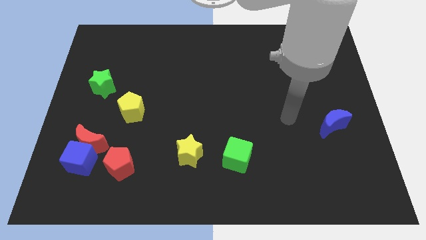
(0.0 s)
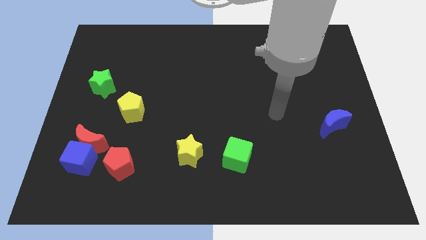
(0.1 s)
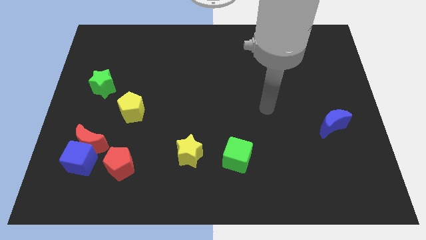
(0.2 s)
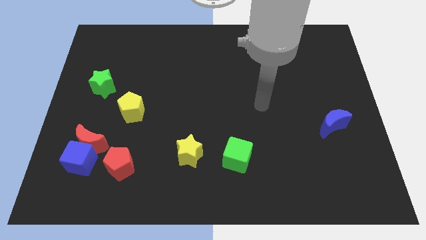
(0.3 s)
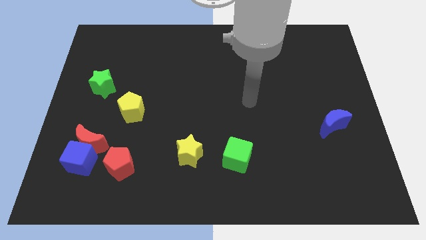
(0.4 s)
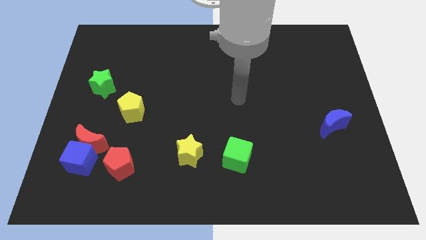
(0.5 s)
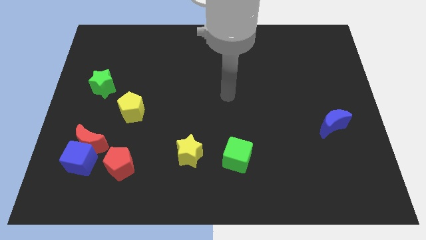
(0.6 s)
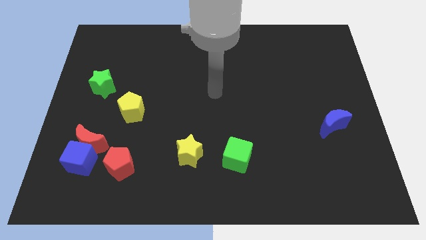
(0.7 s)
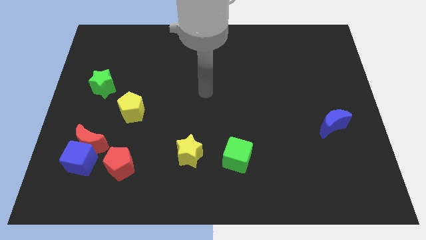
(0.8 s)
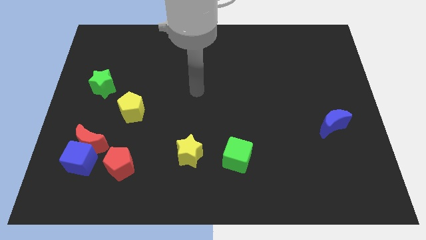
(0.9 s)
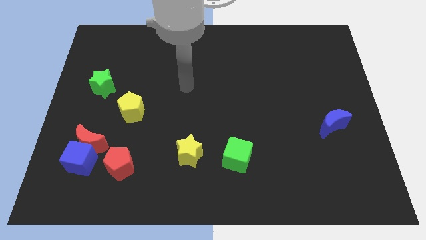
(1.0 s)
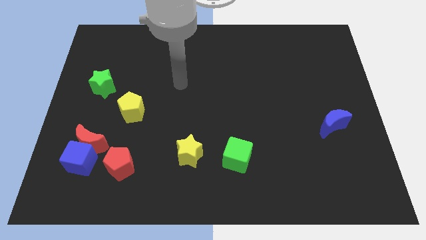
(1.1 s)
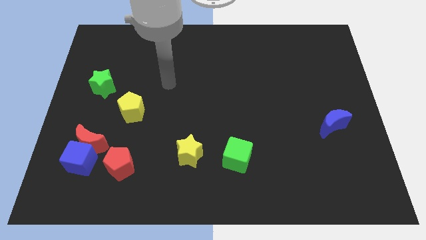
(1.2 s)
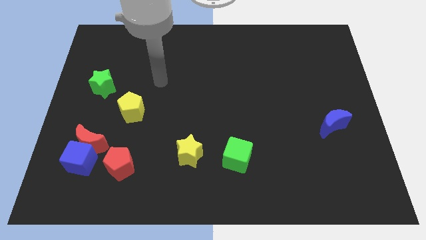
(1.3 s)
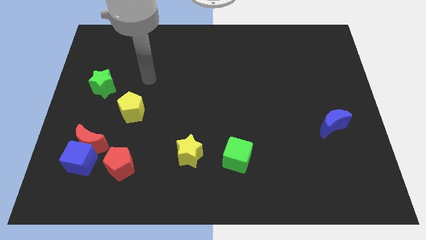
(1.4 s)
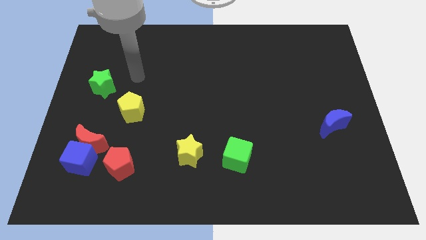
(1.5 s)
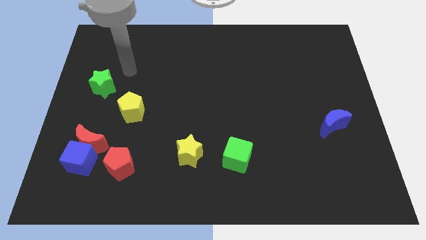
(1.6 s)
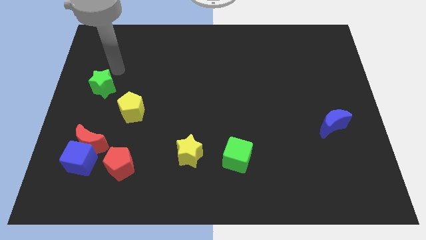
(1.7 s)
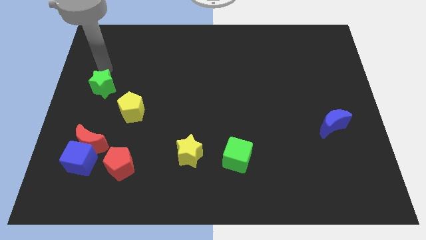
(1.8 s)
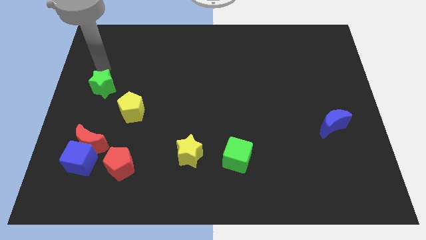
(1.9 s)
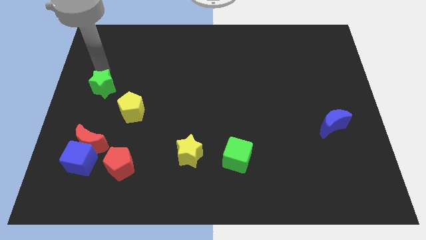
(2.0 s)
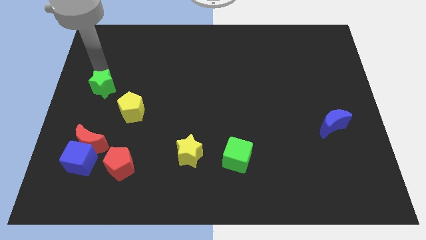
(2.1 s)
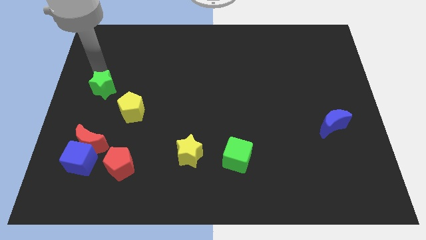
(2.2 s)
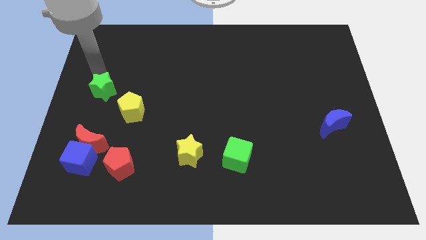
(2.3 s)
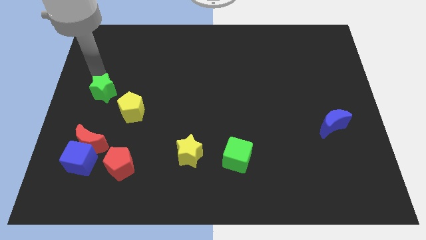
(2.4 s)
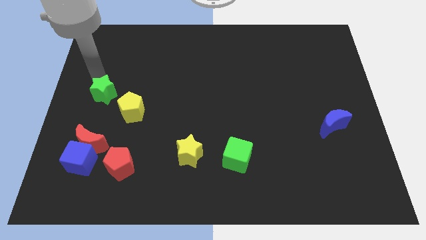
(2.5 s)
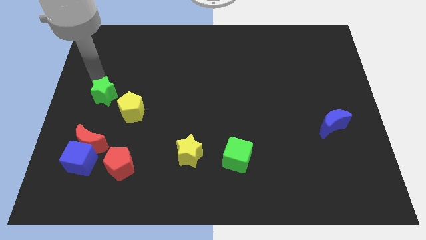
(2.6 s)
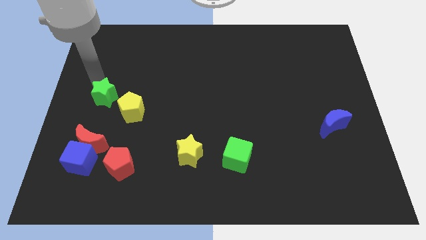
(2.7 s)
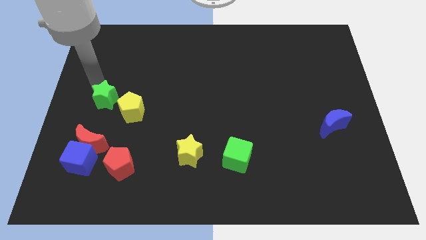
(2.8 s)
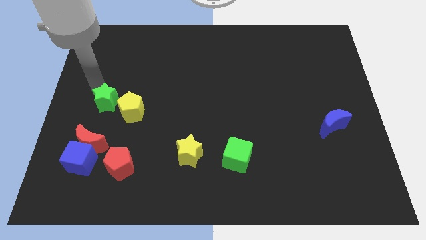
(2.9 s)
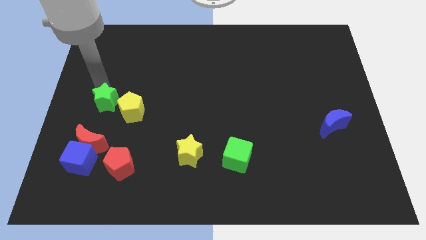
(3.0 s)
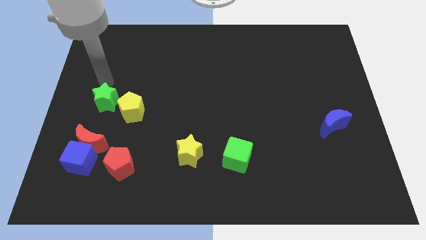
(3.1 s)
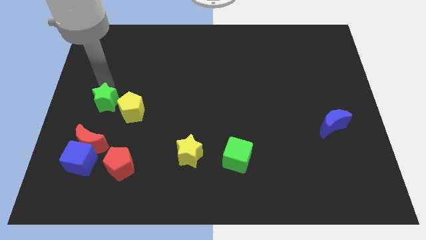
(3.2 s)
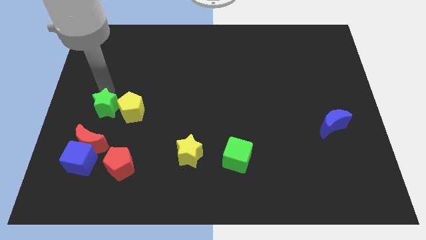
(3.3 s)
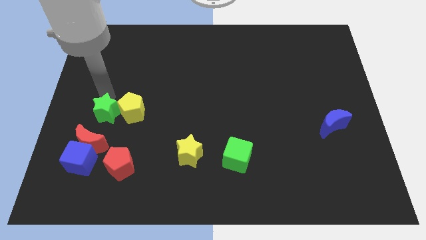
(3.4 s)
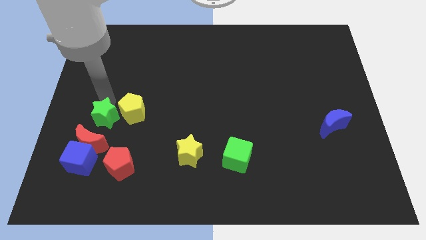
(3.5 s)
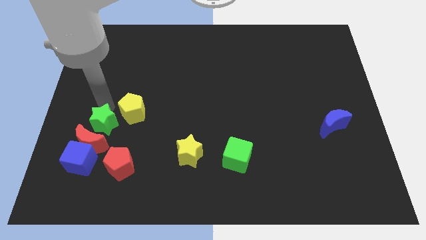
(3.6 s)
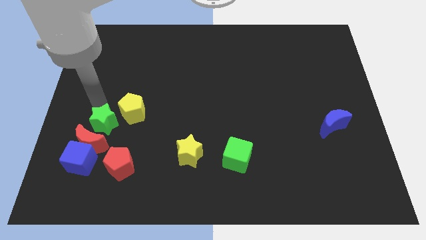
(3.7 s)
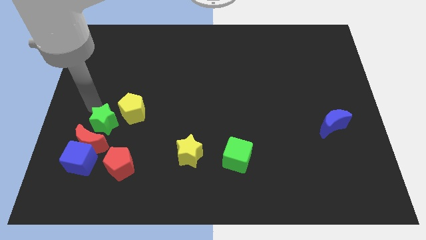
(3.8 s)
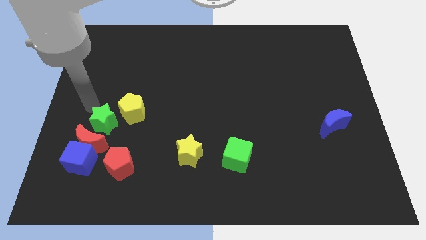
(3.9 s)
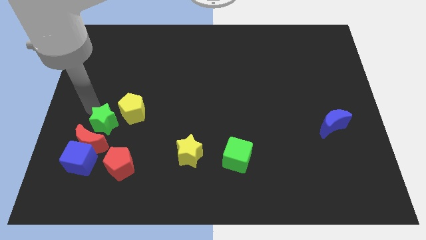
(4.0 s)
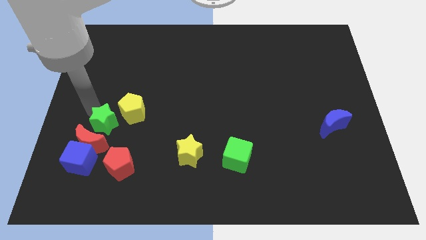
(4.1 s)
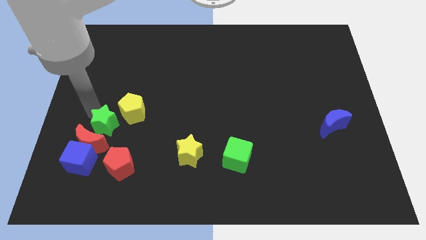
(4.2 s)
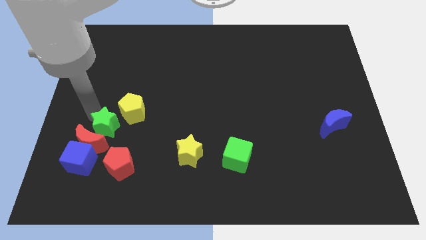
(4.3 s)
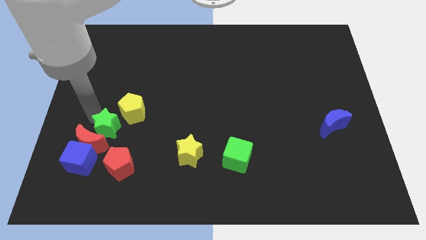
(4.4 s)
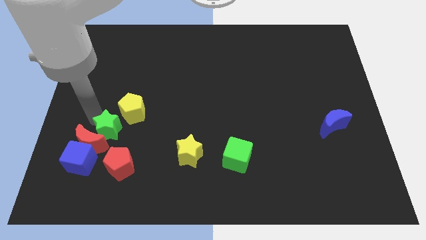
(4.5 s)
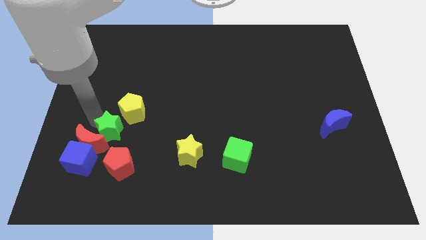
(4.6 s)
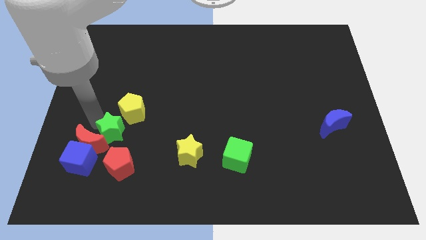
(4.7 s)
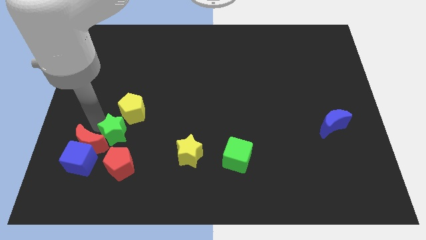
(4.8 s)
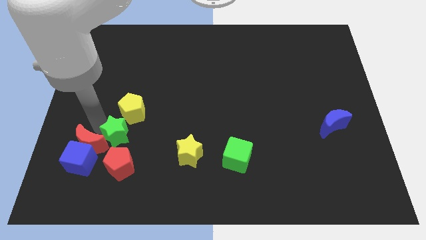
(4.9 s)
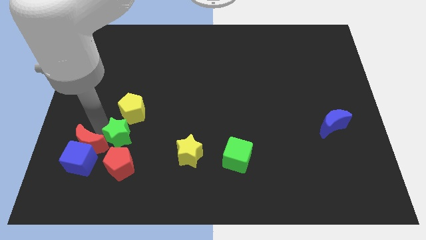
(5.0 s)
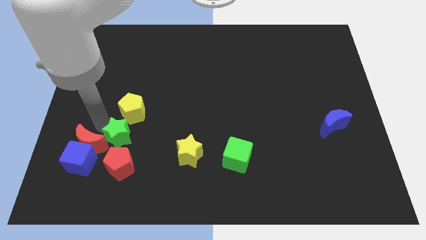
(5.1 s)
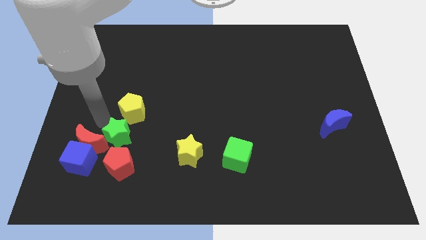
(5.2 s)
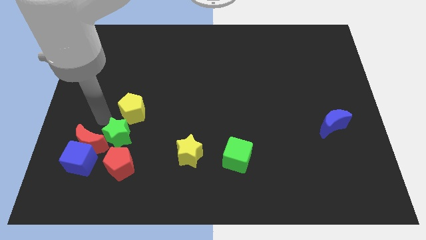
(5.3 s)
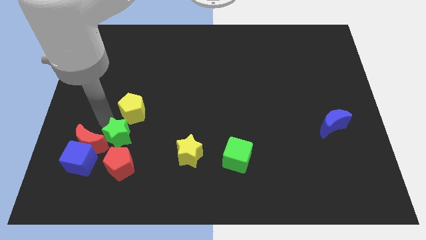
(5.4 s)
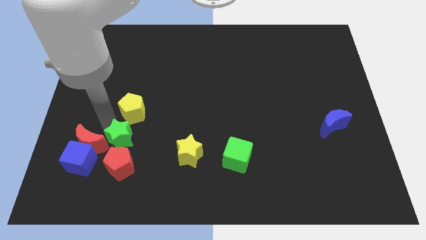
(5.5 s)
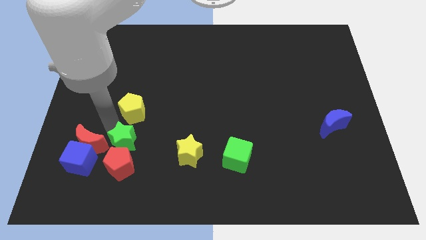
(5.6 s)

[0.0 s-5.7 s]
put the green star to the left side of the yellow star

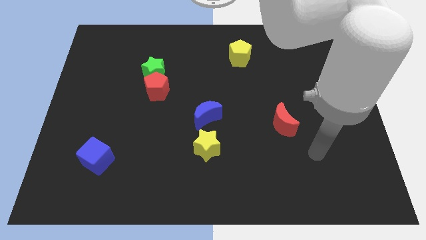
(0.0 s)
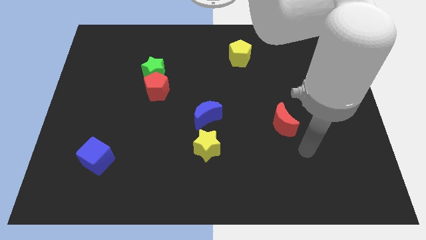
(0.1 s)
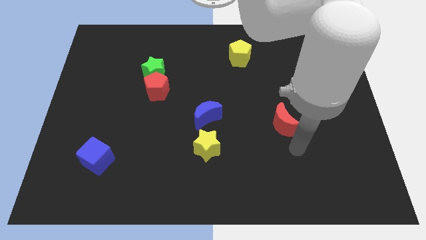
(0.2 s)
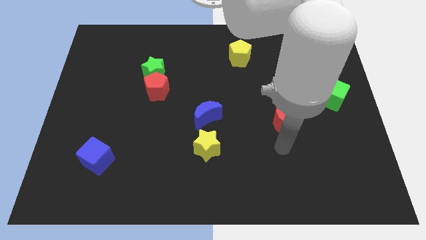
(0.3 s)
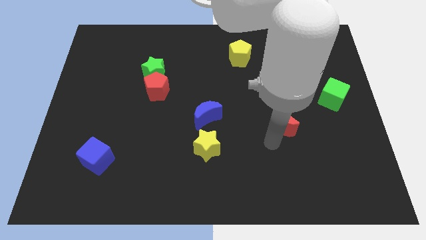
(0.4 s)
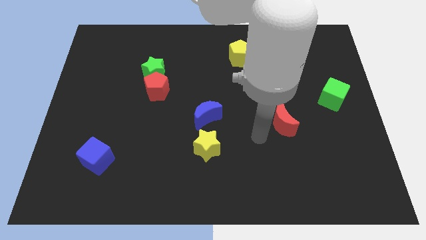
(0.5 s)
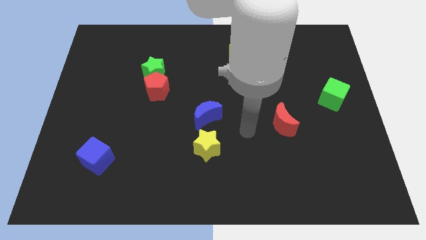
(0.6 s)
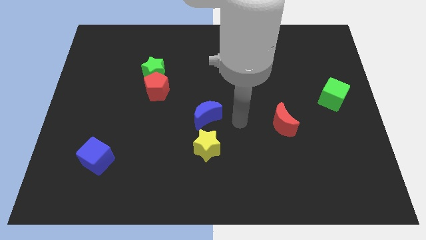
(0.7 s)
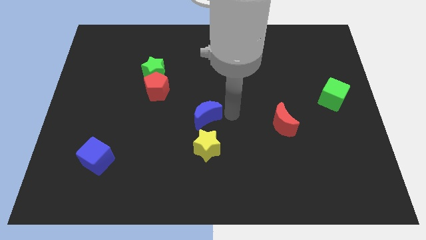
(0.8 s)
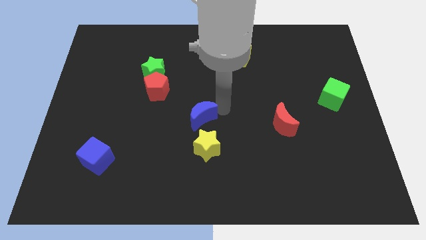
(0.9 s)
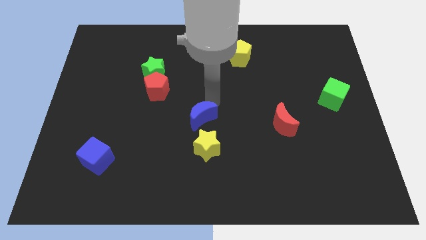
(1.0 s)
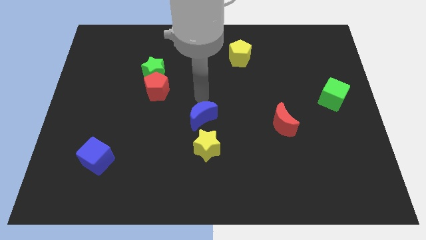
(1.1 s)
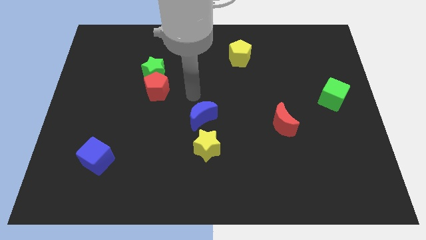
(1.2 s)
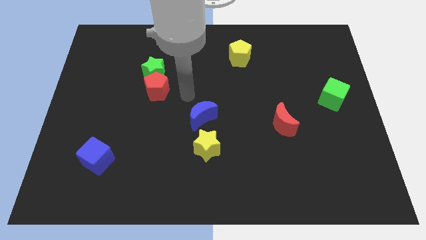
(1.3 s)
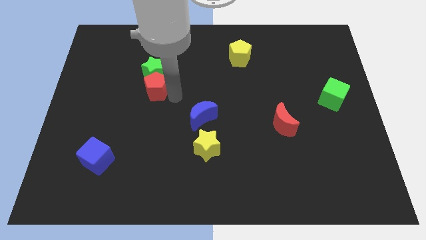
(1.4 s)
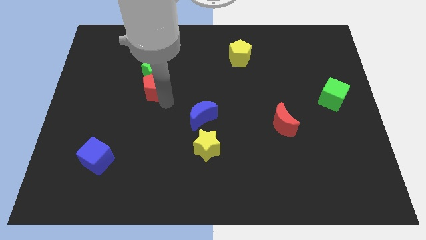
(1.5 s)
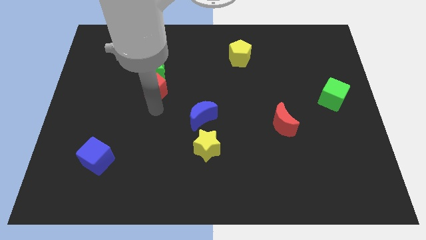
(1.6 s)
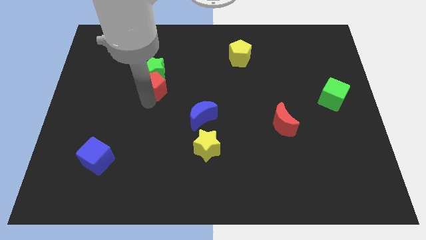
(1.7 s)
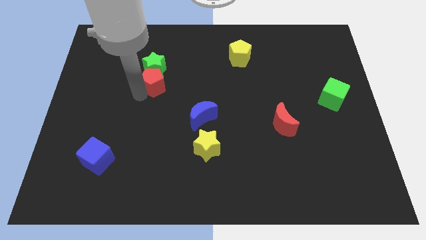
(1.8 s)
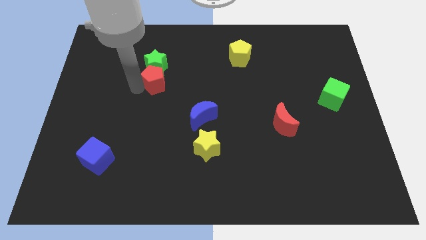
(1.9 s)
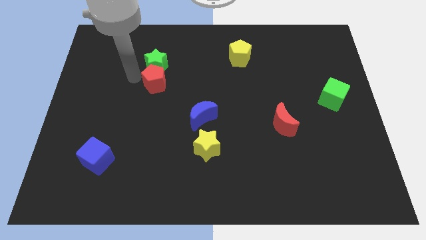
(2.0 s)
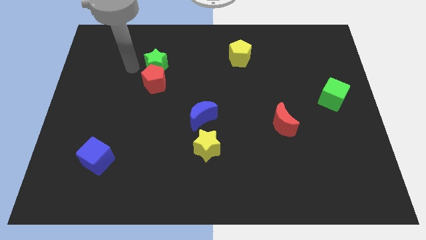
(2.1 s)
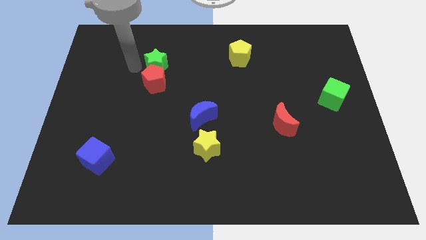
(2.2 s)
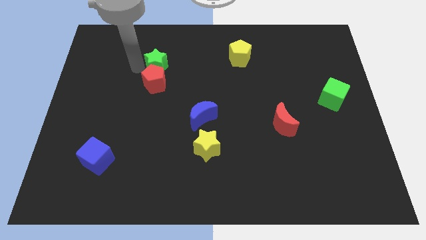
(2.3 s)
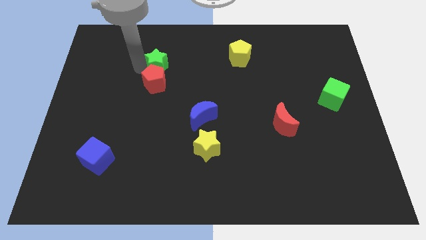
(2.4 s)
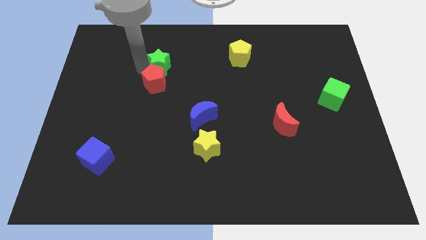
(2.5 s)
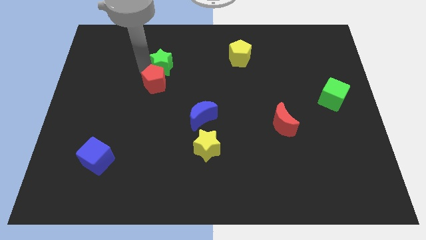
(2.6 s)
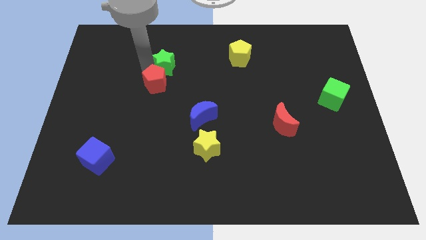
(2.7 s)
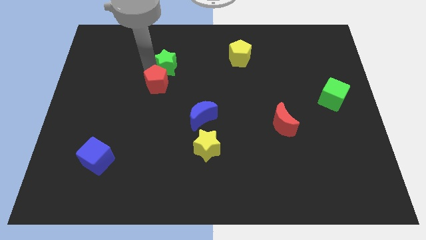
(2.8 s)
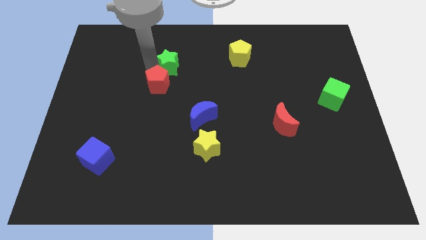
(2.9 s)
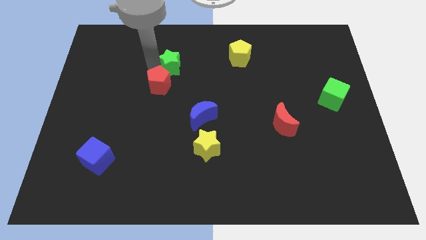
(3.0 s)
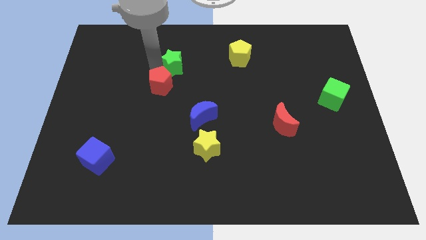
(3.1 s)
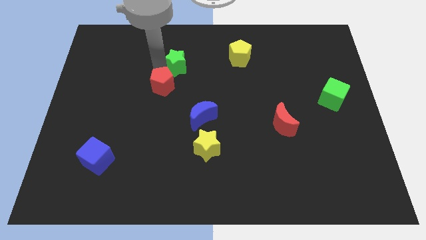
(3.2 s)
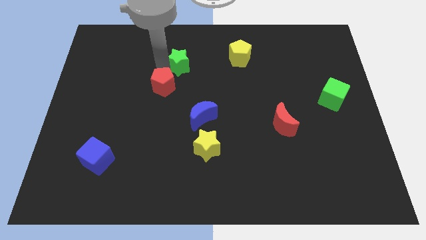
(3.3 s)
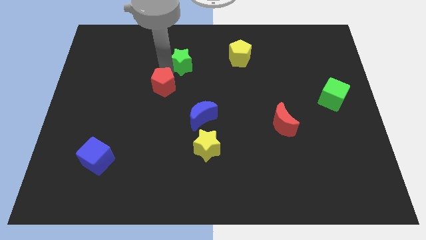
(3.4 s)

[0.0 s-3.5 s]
put the green star just left of the yellow pentagon
